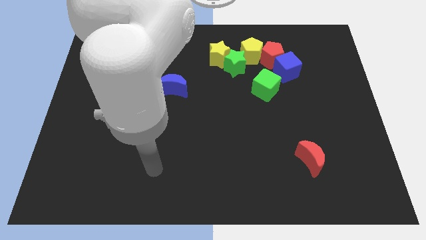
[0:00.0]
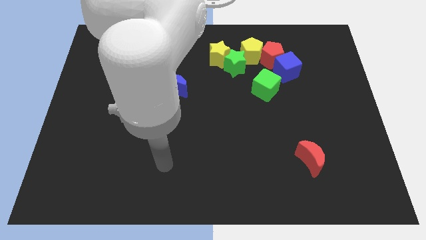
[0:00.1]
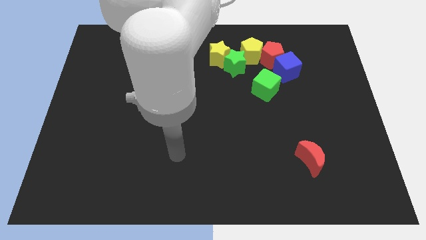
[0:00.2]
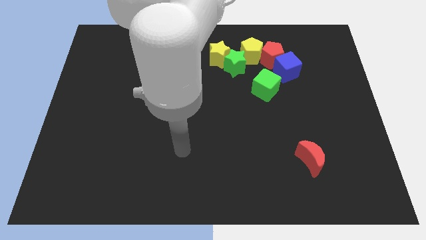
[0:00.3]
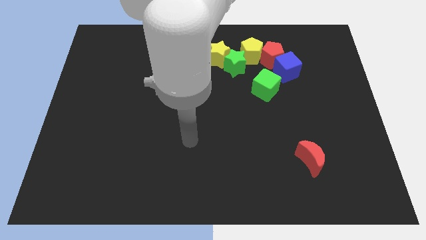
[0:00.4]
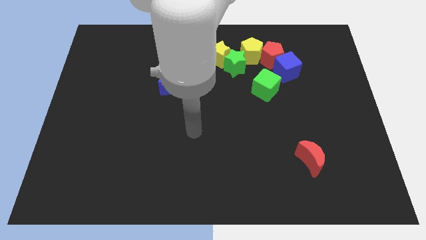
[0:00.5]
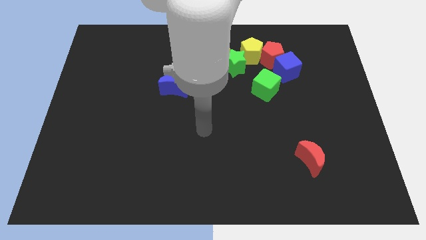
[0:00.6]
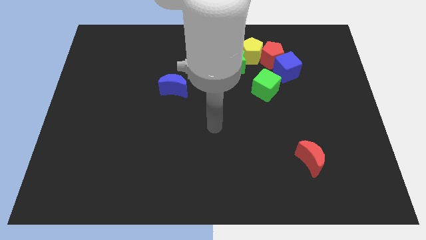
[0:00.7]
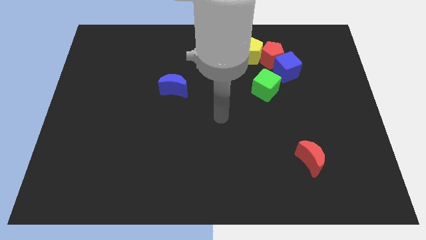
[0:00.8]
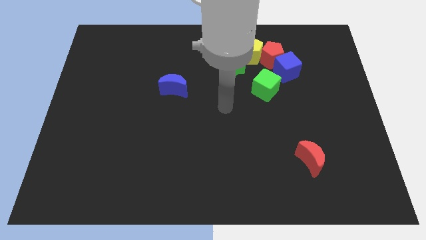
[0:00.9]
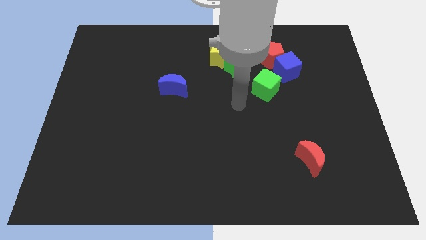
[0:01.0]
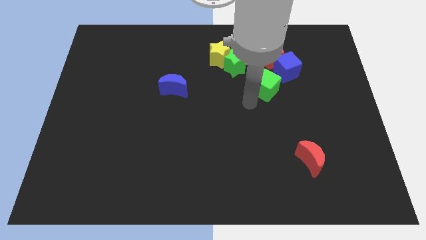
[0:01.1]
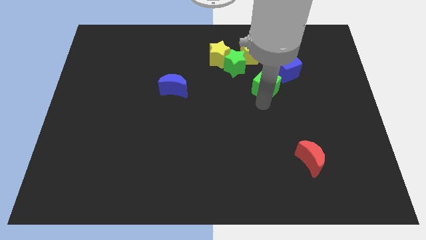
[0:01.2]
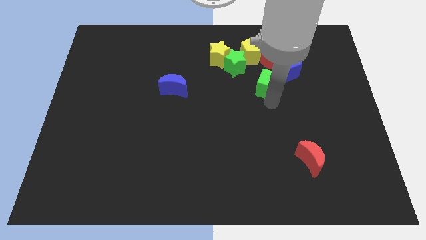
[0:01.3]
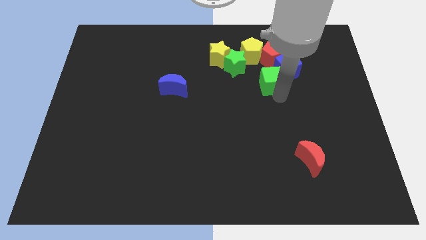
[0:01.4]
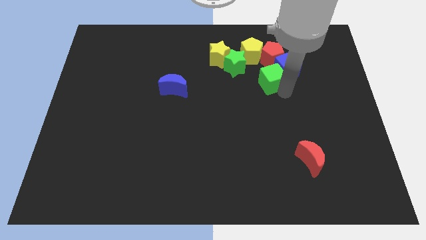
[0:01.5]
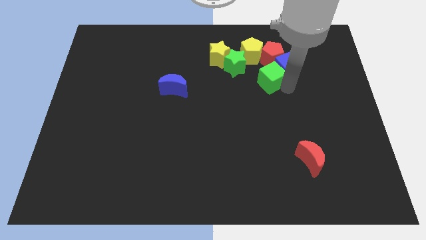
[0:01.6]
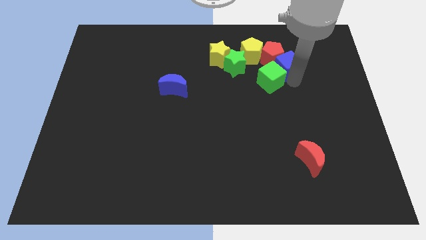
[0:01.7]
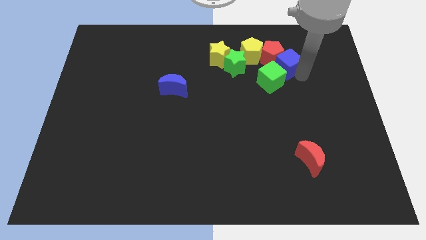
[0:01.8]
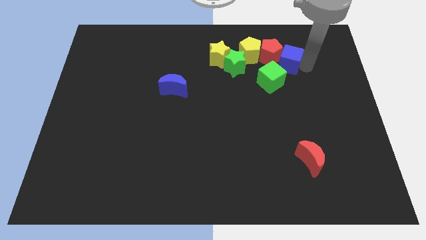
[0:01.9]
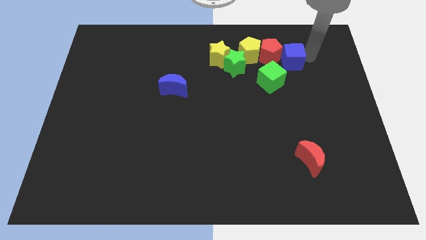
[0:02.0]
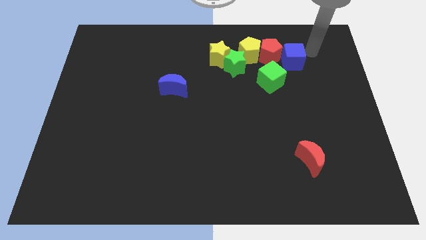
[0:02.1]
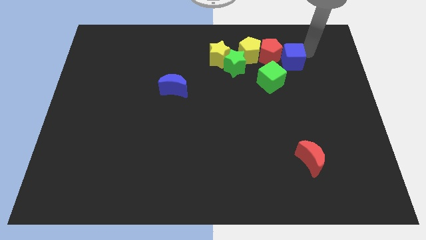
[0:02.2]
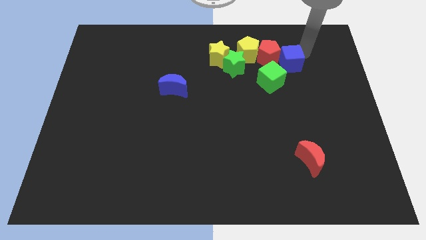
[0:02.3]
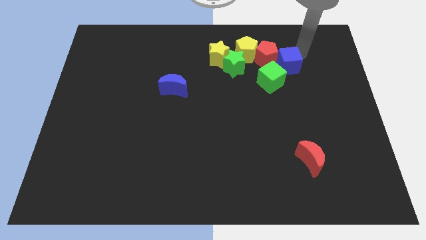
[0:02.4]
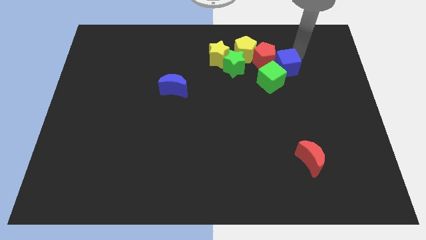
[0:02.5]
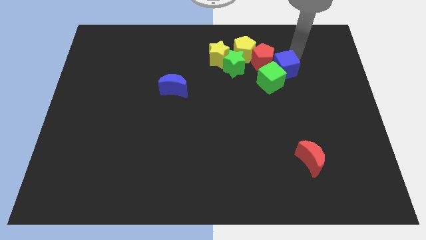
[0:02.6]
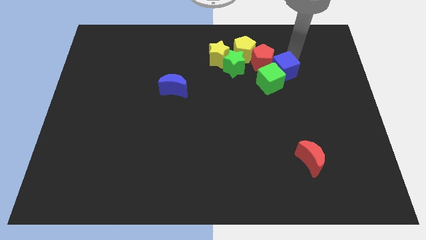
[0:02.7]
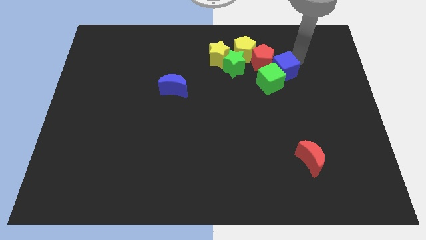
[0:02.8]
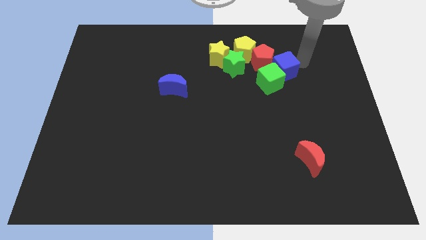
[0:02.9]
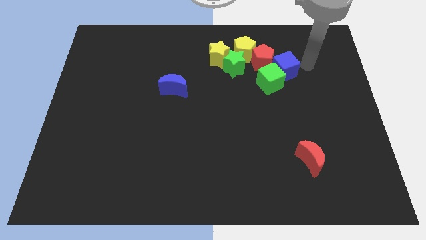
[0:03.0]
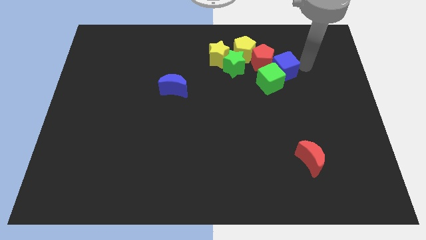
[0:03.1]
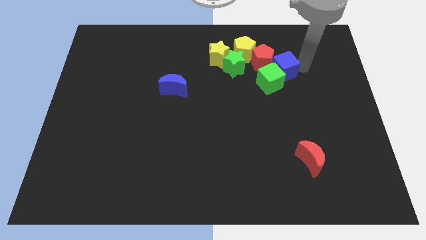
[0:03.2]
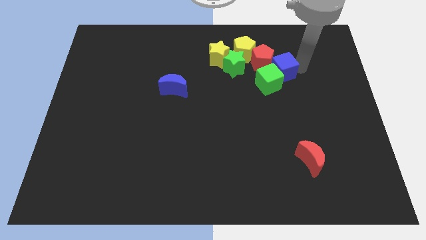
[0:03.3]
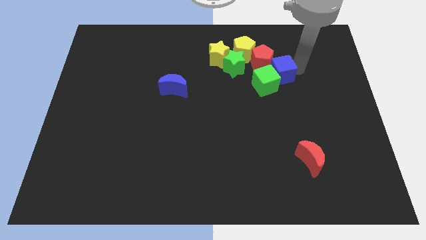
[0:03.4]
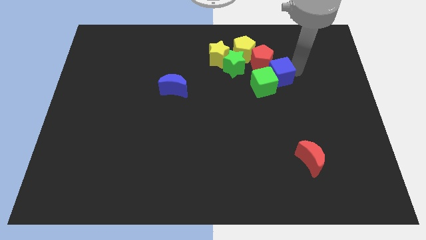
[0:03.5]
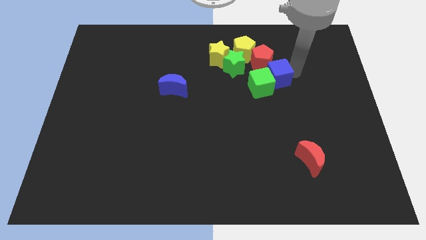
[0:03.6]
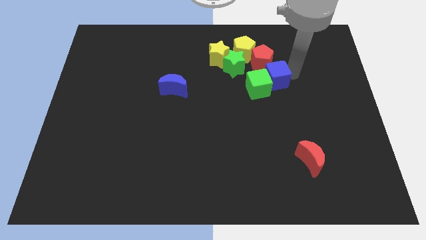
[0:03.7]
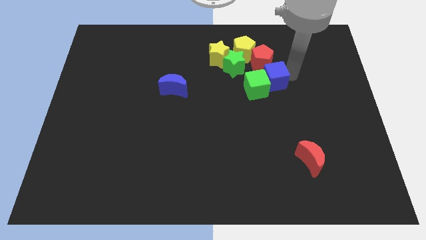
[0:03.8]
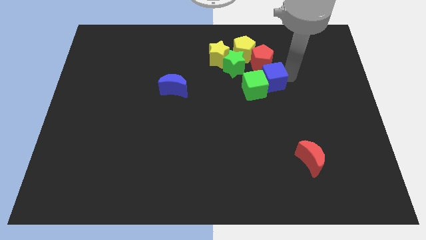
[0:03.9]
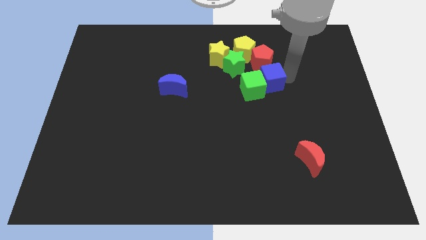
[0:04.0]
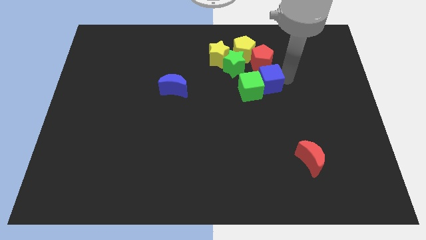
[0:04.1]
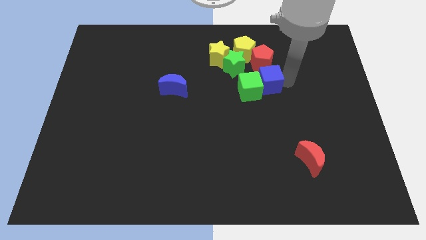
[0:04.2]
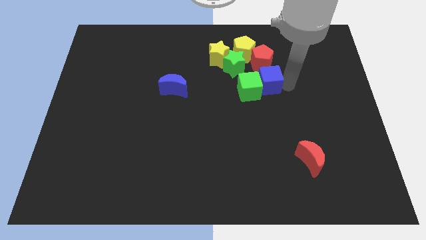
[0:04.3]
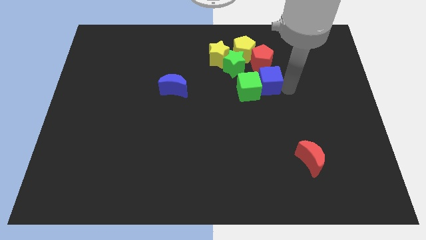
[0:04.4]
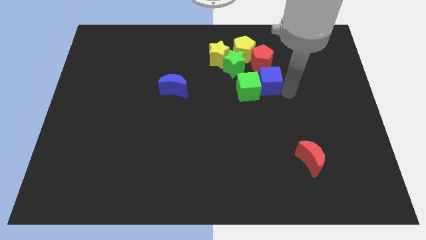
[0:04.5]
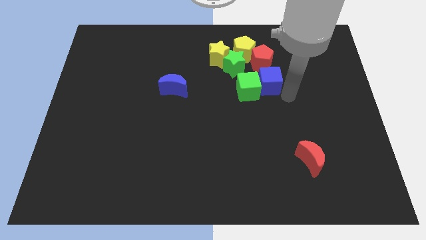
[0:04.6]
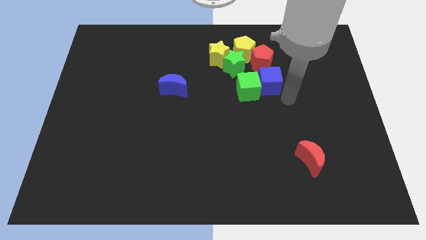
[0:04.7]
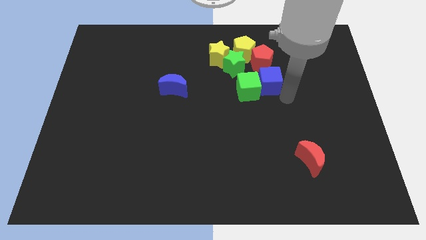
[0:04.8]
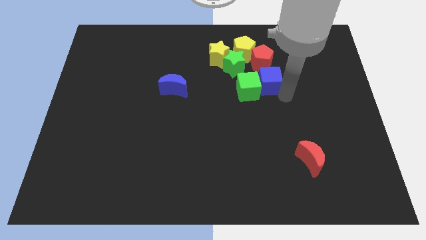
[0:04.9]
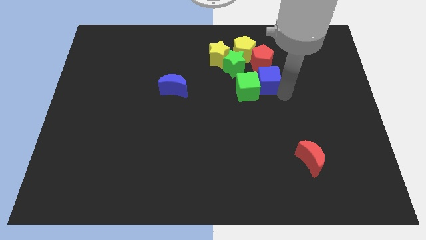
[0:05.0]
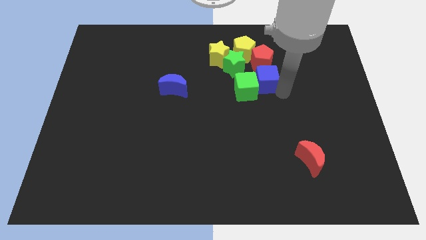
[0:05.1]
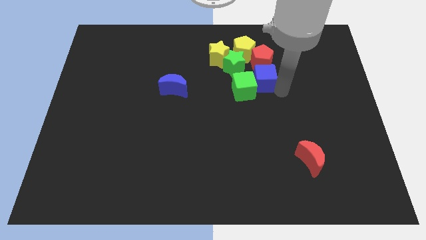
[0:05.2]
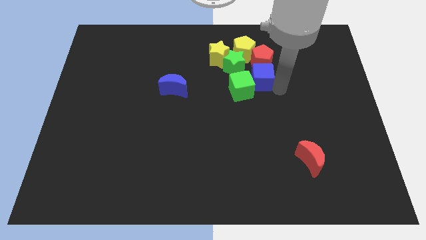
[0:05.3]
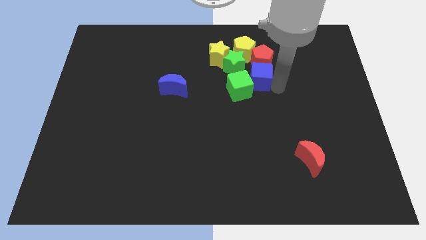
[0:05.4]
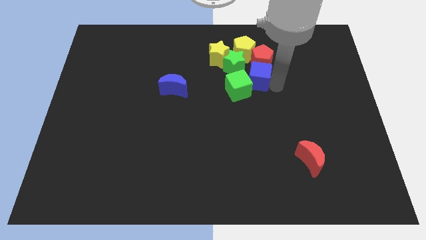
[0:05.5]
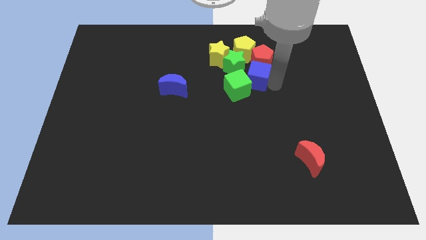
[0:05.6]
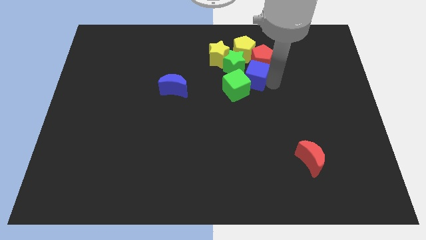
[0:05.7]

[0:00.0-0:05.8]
push the blue cube to the middle of the board
